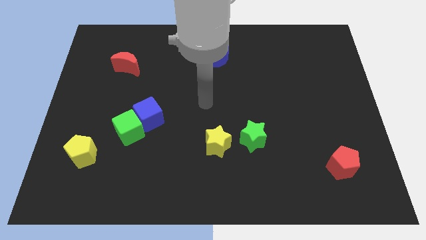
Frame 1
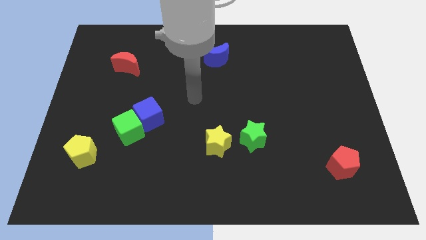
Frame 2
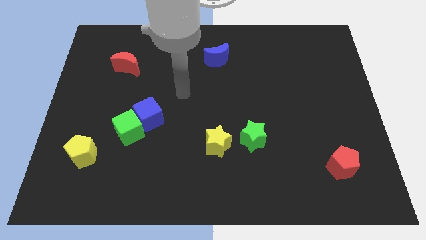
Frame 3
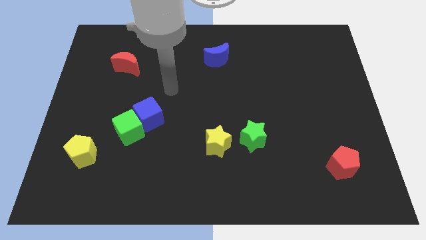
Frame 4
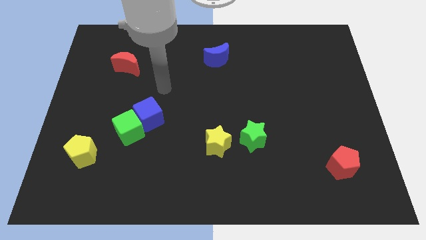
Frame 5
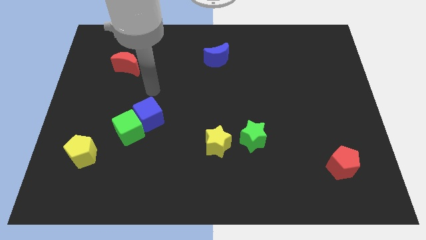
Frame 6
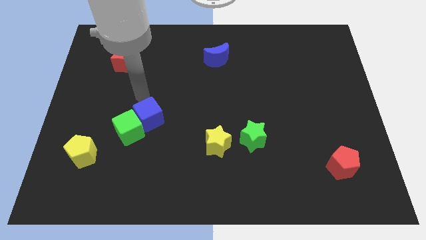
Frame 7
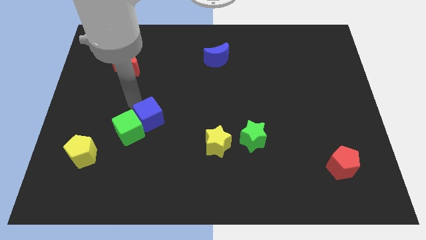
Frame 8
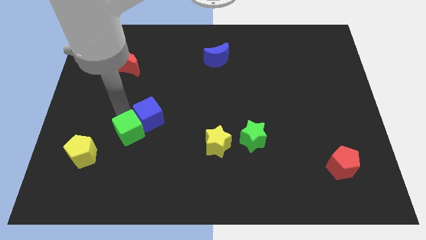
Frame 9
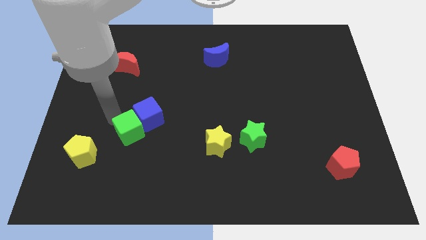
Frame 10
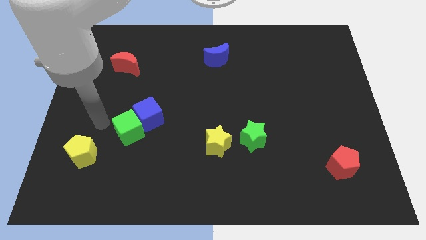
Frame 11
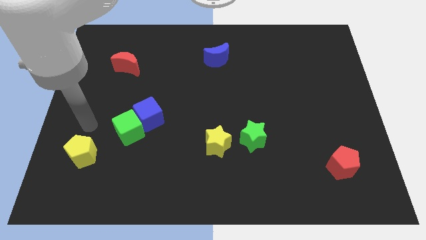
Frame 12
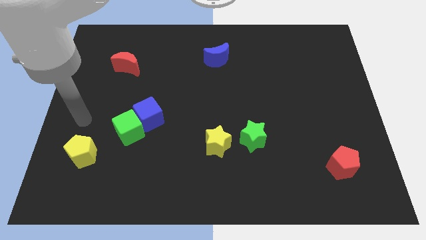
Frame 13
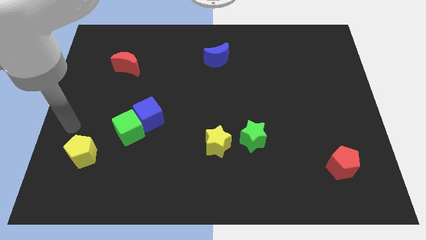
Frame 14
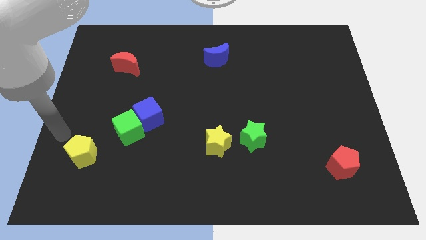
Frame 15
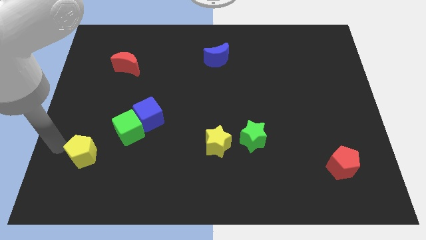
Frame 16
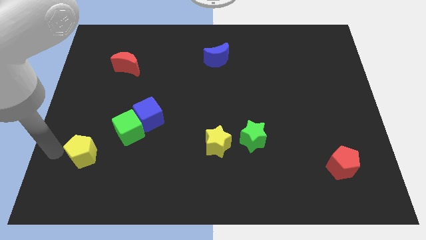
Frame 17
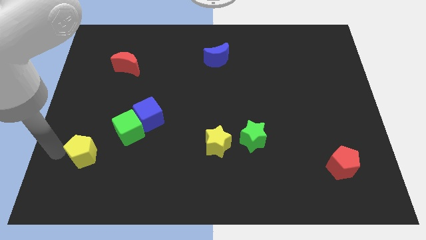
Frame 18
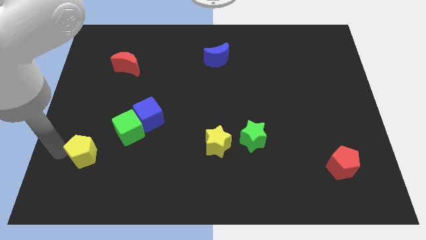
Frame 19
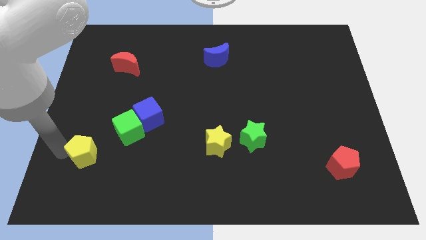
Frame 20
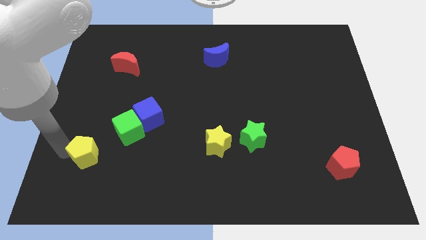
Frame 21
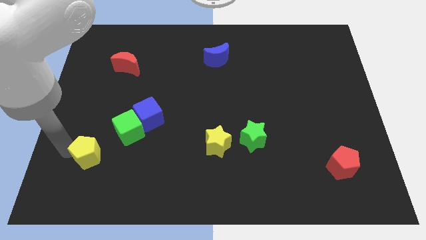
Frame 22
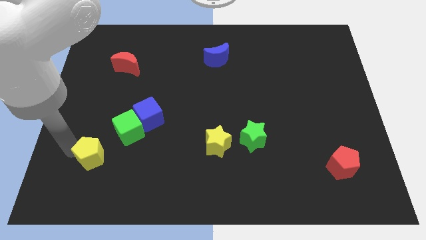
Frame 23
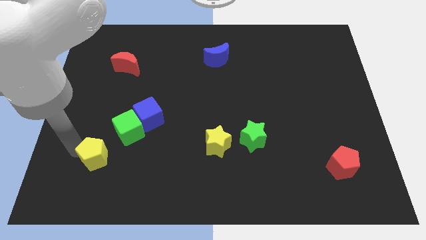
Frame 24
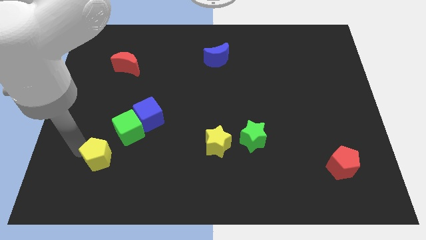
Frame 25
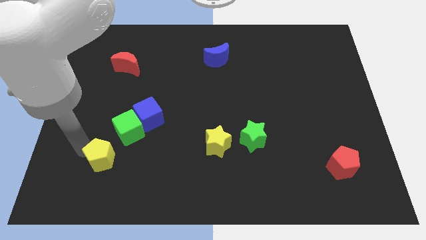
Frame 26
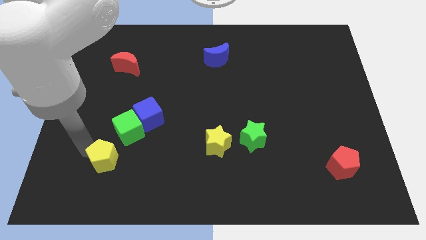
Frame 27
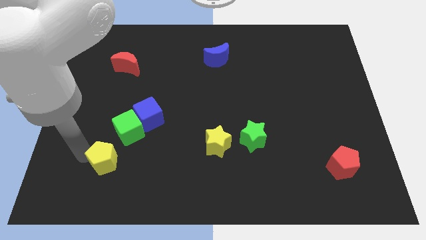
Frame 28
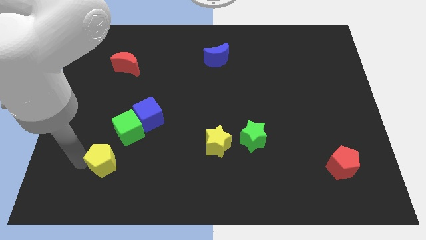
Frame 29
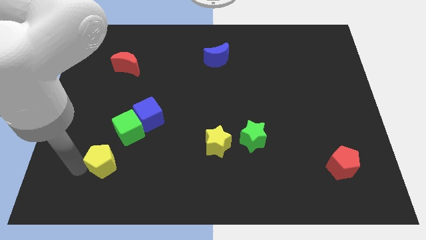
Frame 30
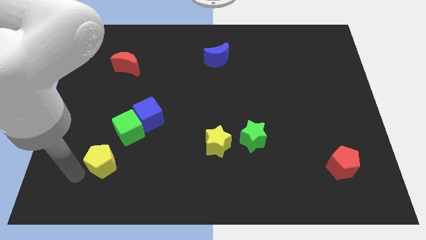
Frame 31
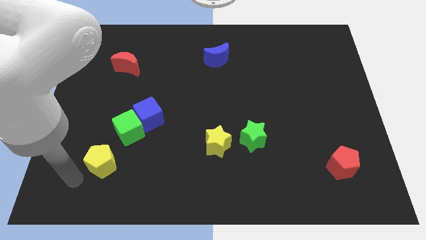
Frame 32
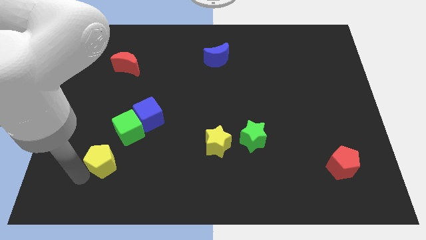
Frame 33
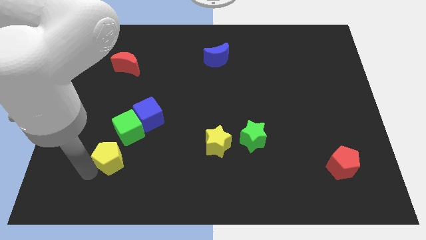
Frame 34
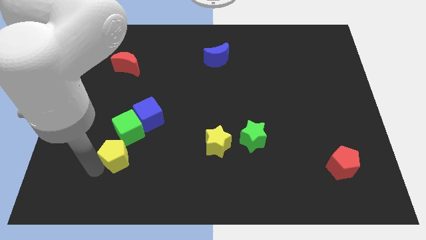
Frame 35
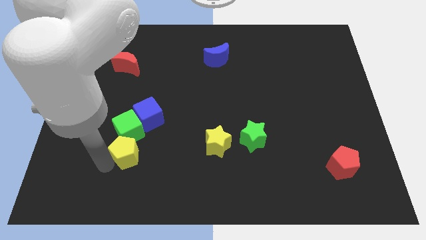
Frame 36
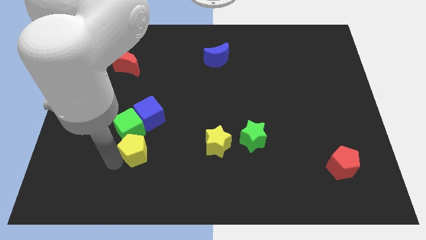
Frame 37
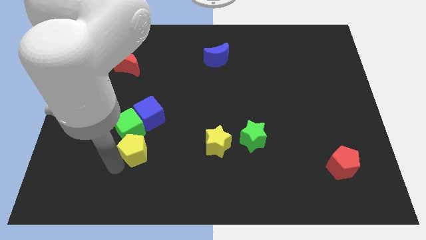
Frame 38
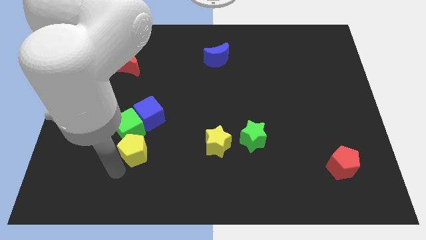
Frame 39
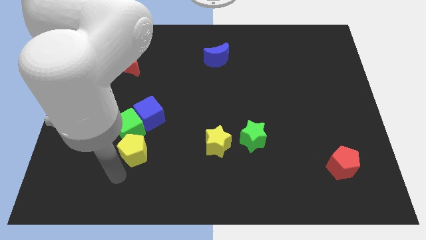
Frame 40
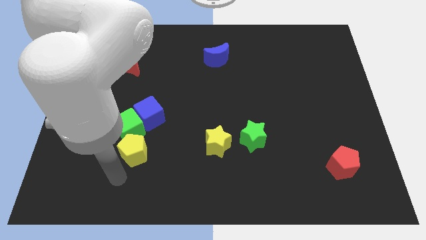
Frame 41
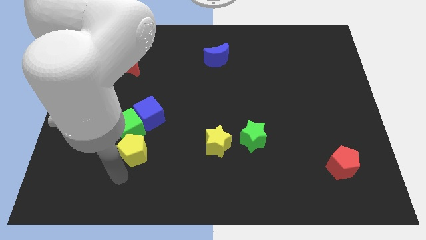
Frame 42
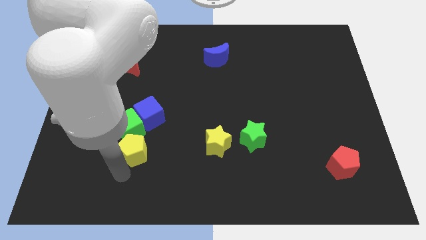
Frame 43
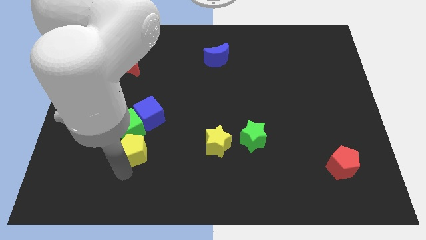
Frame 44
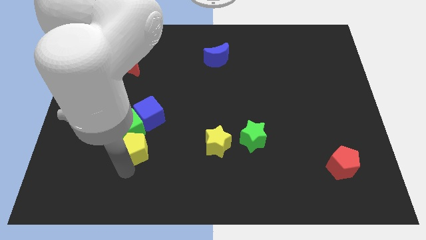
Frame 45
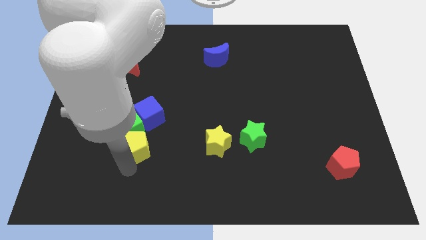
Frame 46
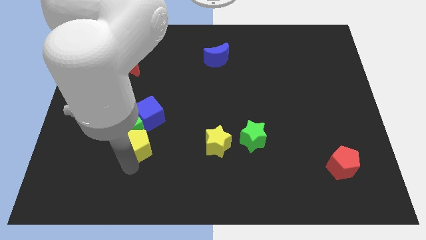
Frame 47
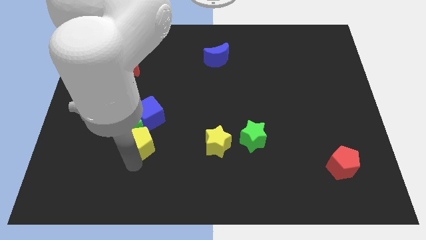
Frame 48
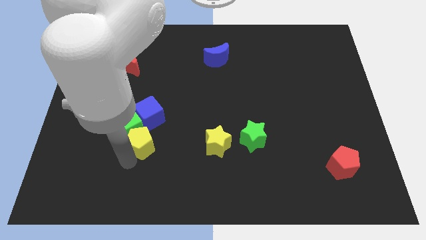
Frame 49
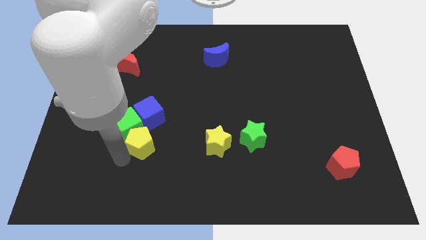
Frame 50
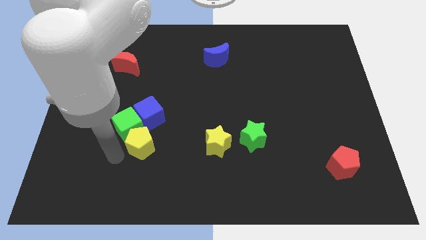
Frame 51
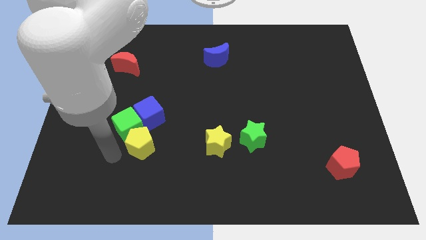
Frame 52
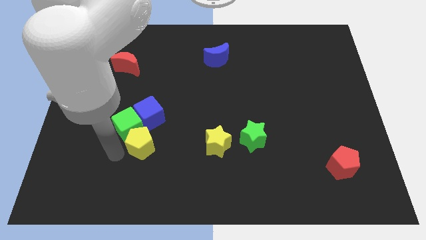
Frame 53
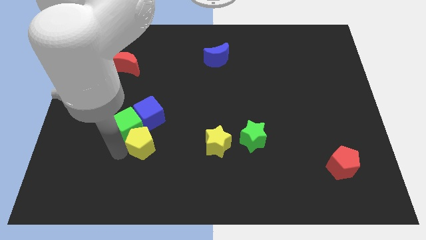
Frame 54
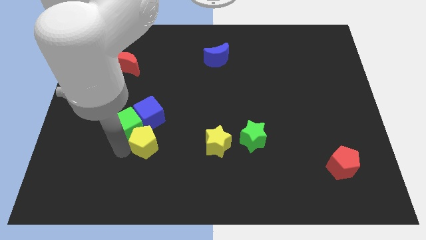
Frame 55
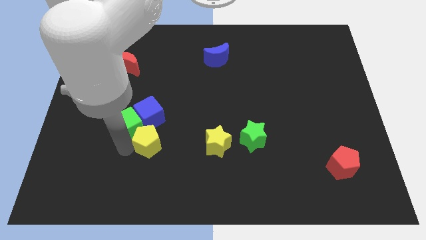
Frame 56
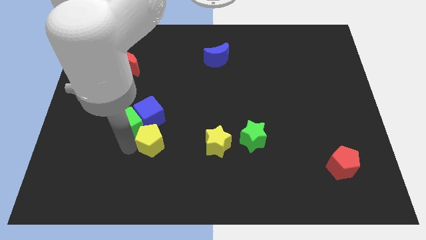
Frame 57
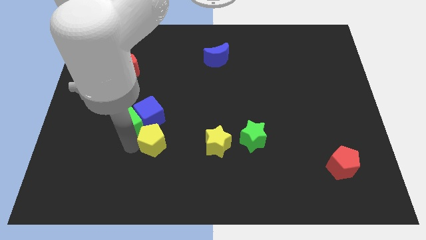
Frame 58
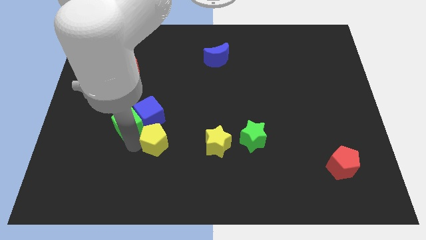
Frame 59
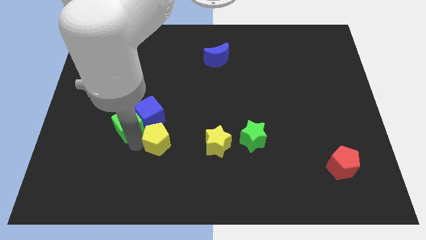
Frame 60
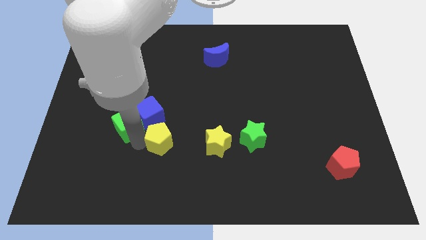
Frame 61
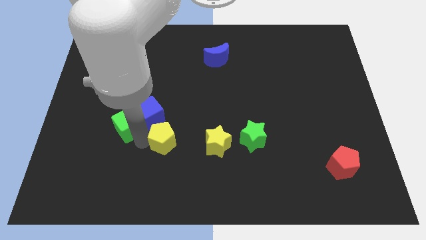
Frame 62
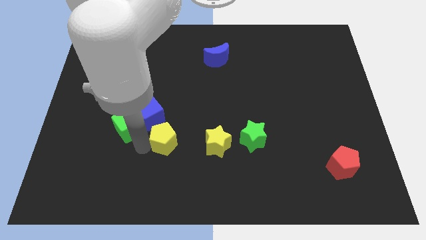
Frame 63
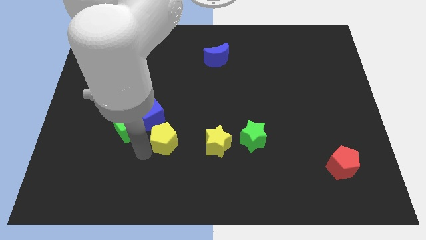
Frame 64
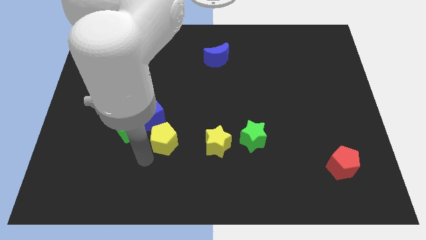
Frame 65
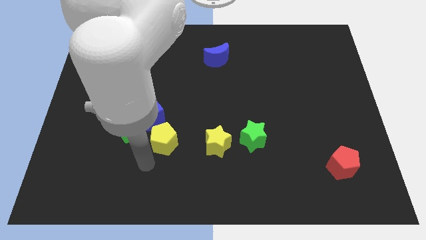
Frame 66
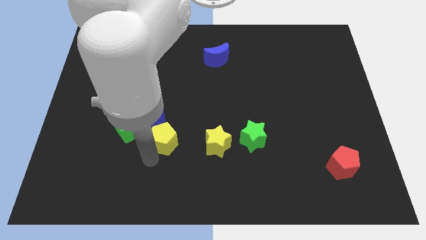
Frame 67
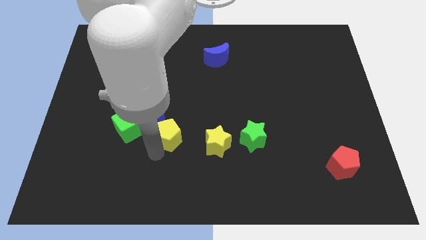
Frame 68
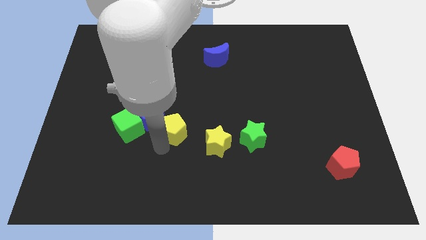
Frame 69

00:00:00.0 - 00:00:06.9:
slide the yellow pentagon to the middle
